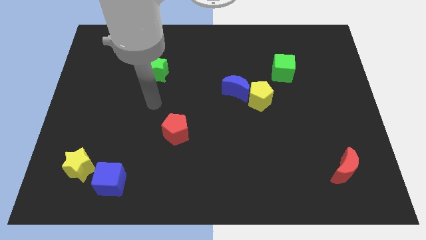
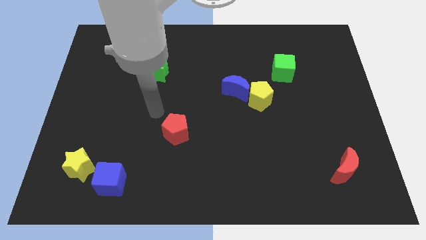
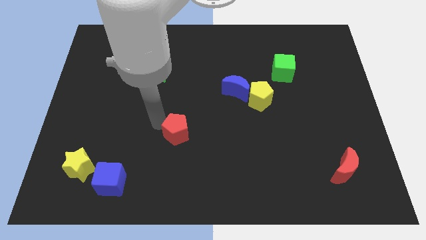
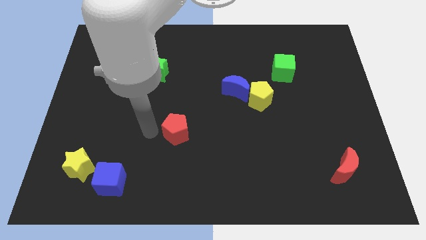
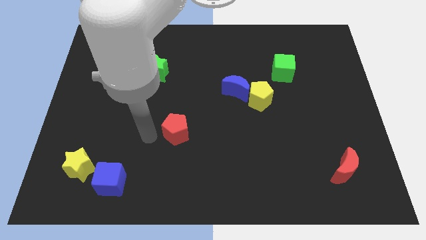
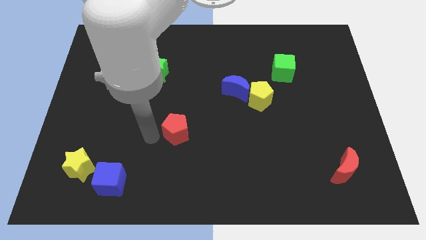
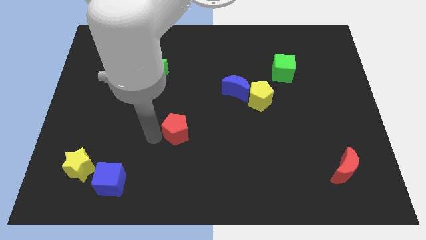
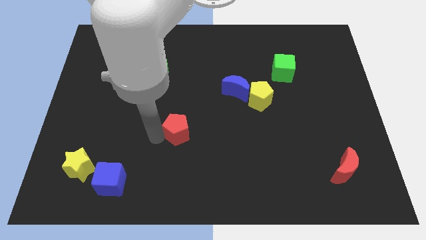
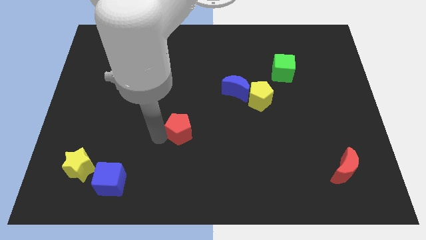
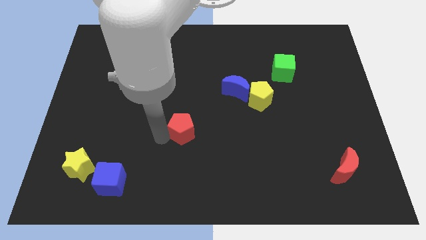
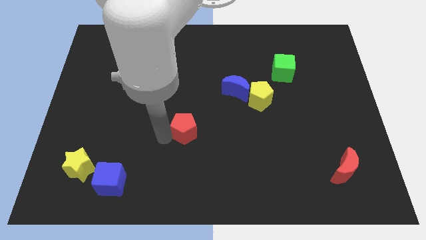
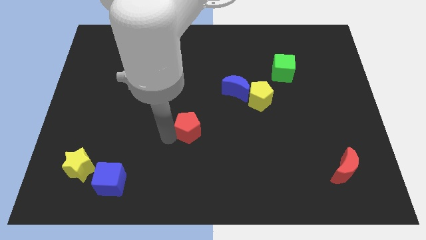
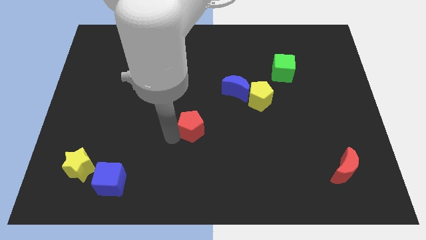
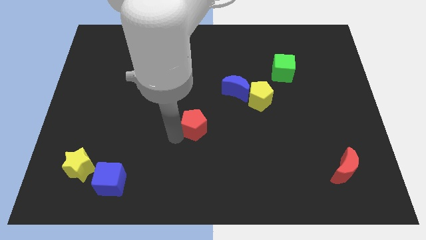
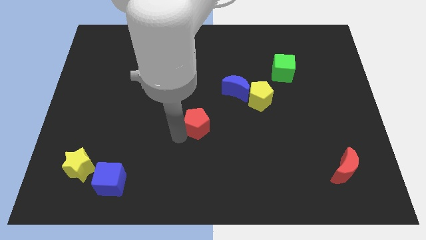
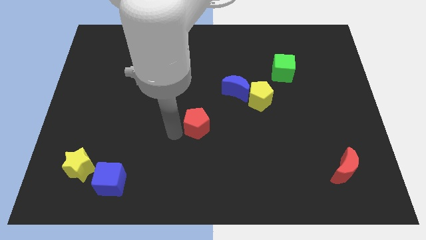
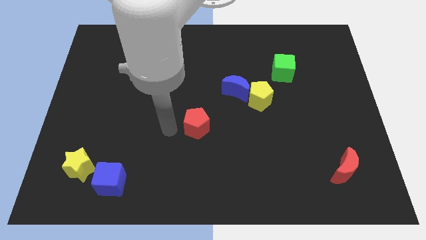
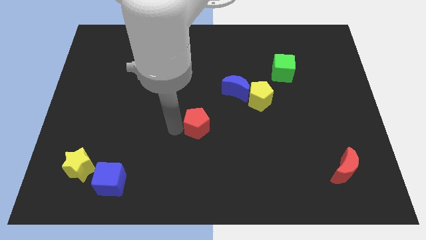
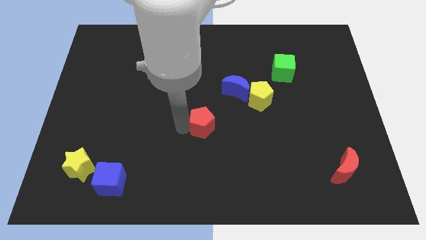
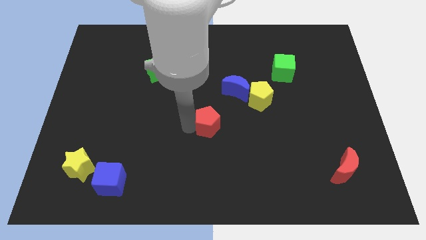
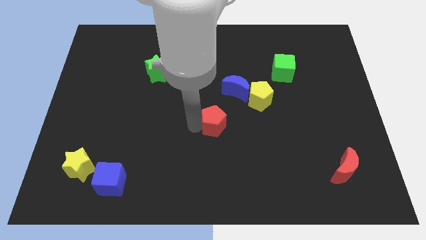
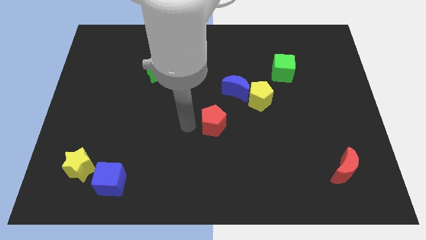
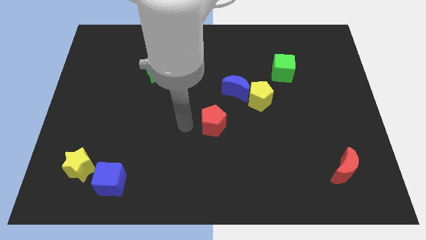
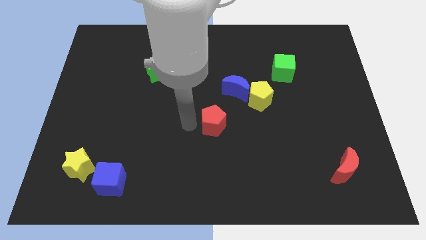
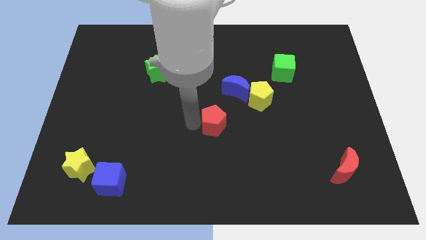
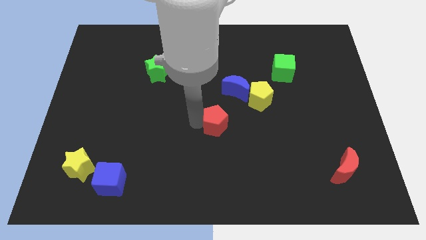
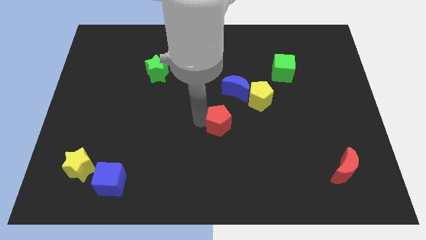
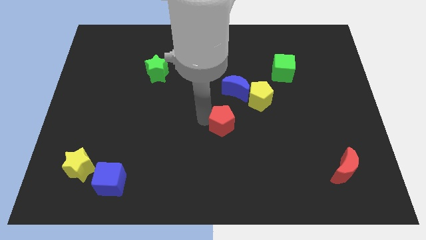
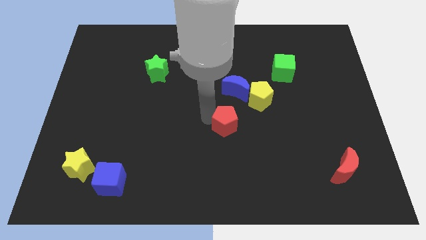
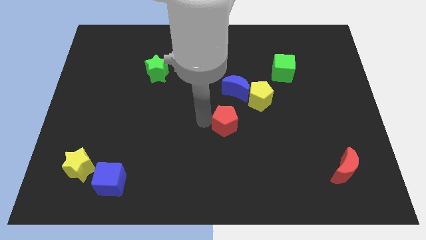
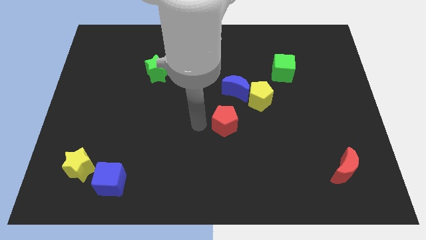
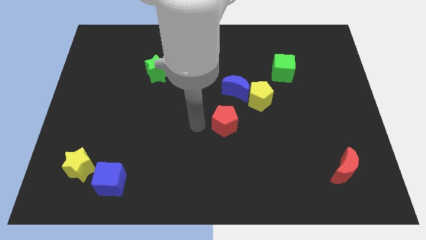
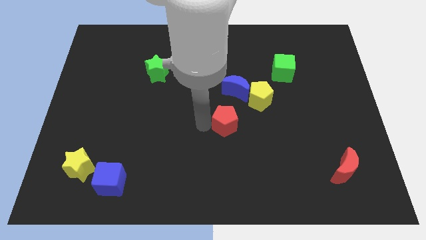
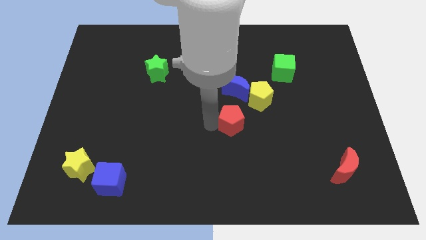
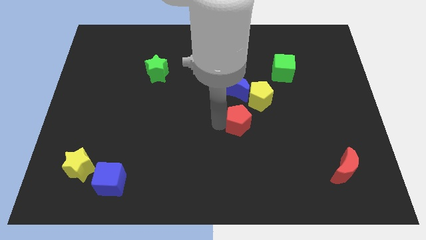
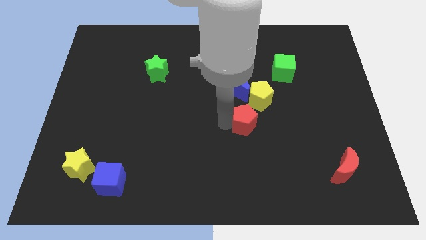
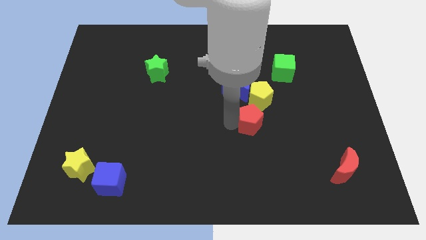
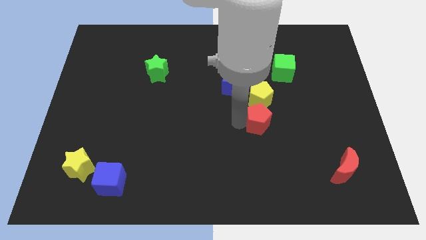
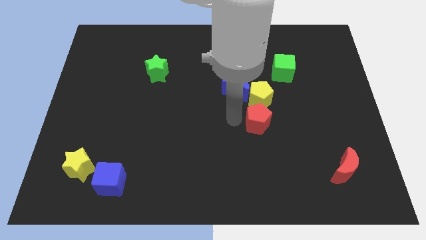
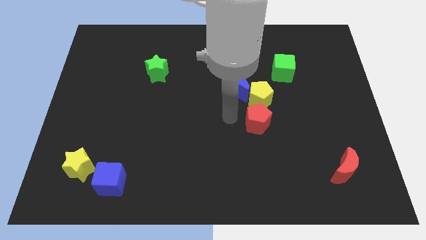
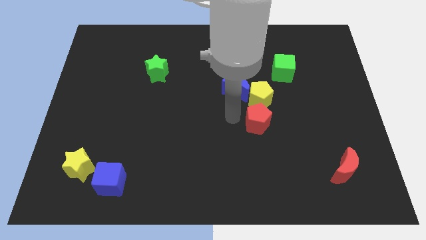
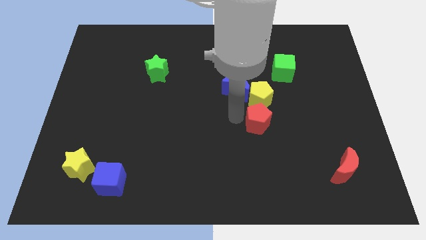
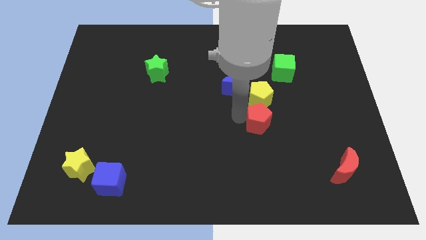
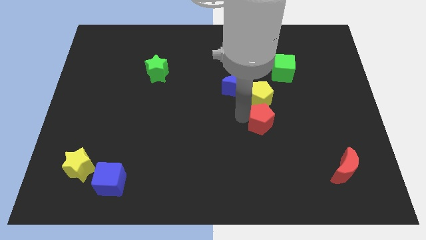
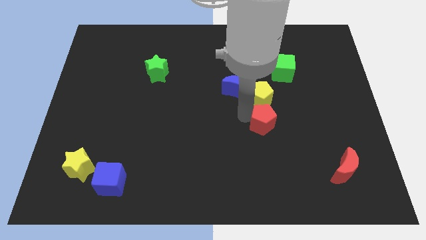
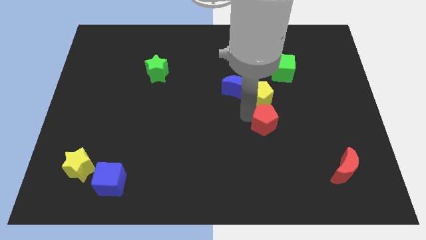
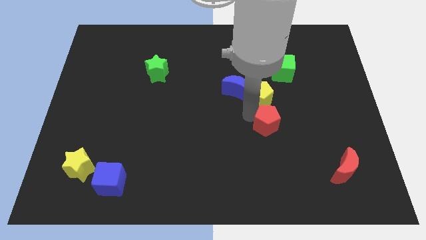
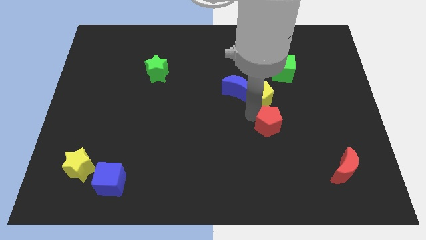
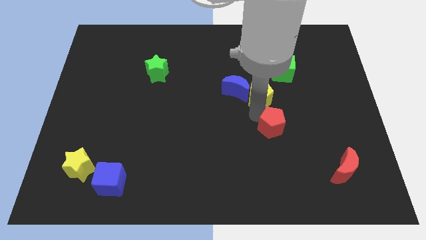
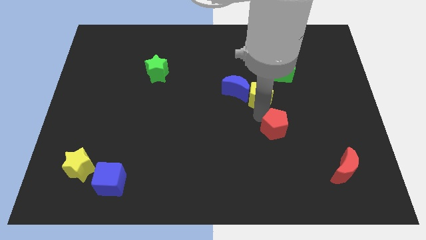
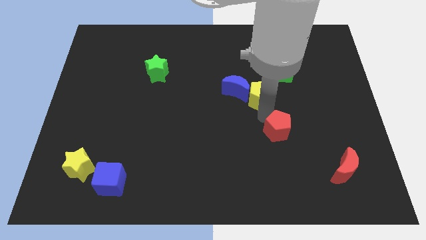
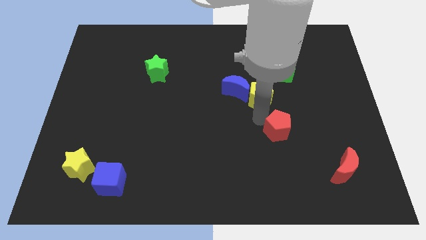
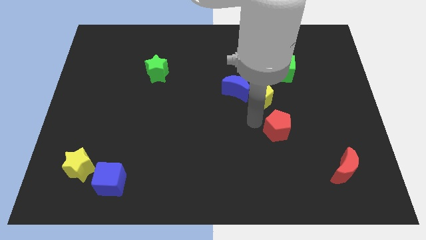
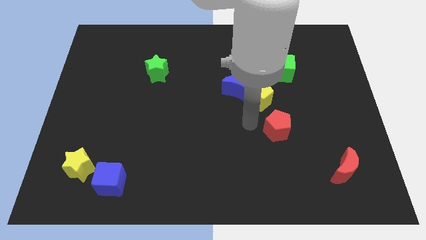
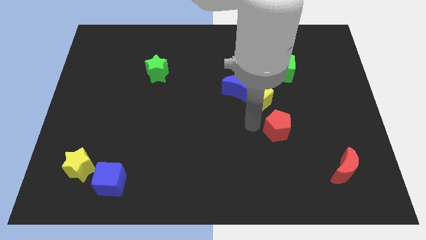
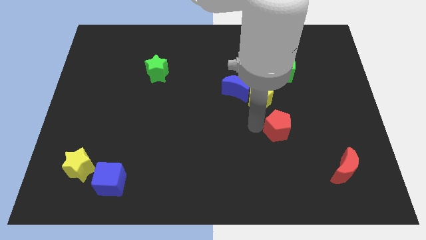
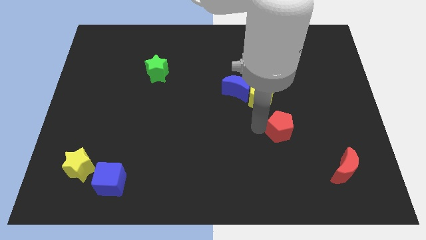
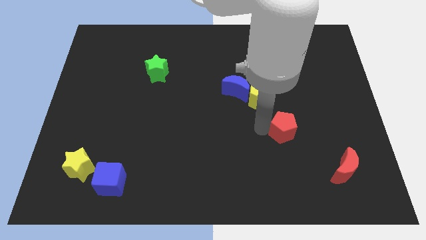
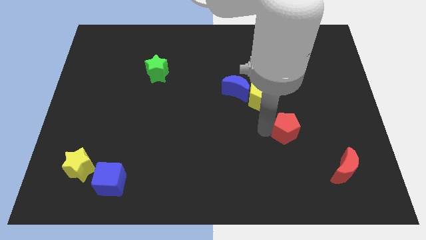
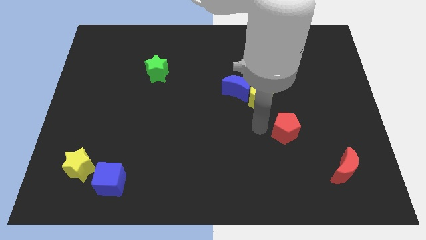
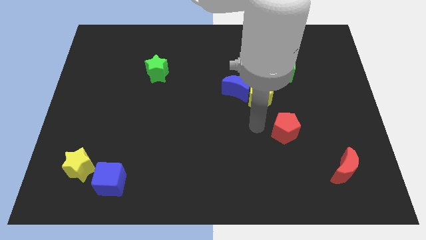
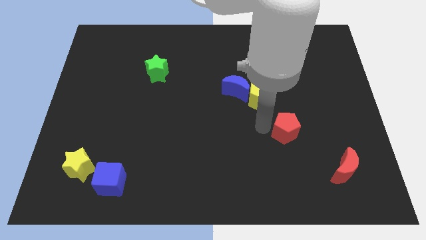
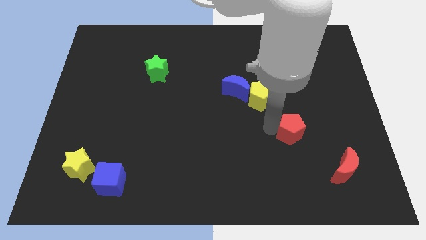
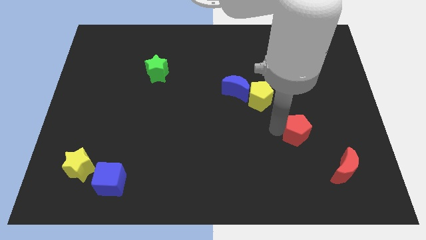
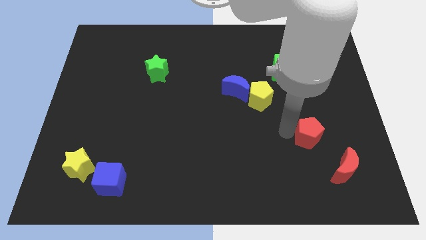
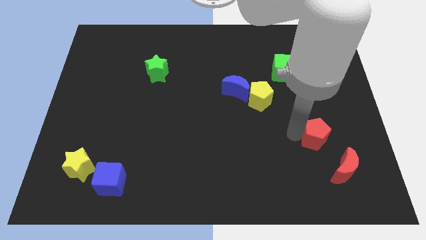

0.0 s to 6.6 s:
slide the red pentagon above the red moon
